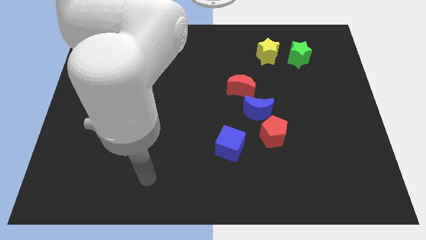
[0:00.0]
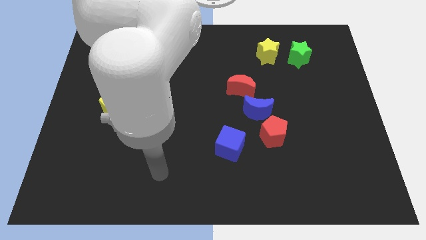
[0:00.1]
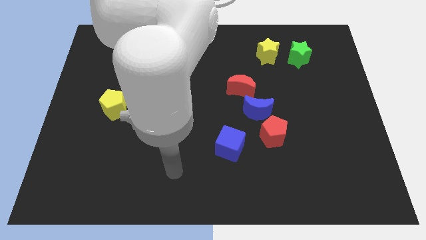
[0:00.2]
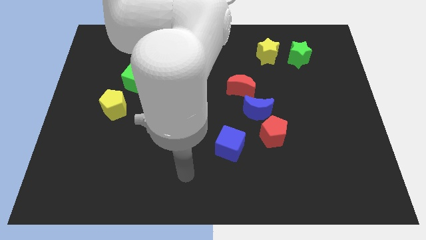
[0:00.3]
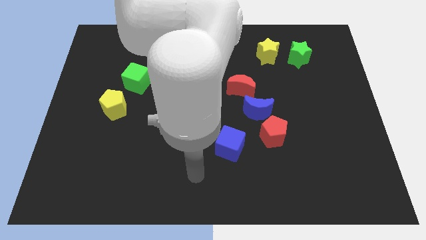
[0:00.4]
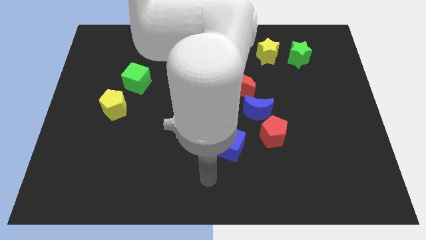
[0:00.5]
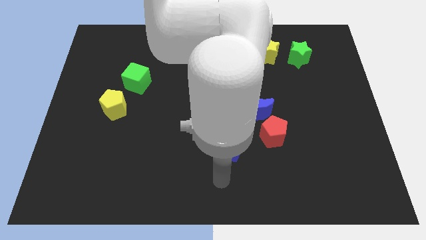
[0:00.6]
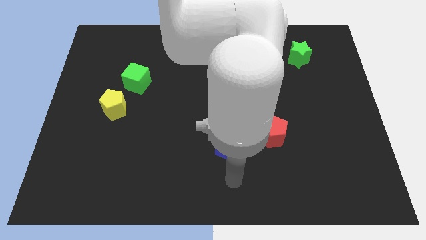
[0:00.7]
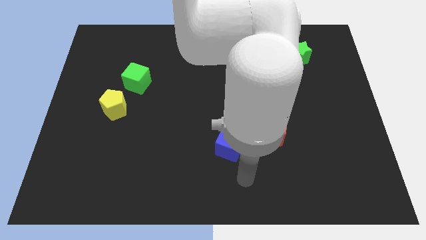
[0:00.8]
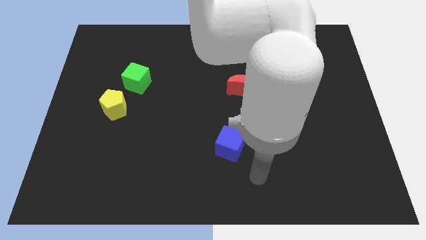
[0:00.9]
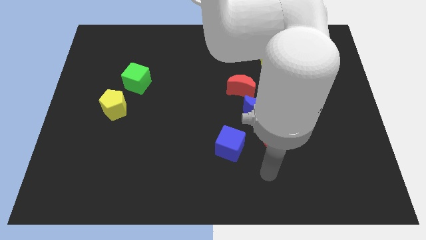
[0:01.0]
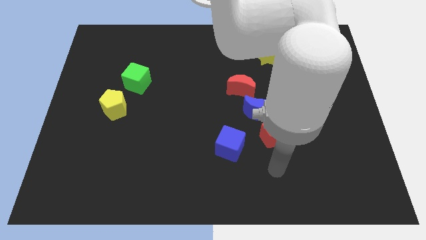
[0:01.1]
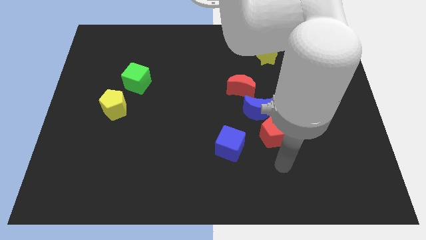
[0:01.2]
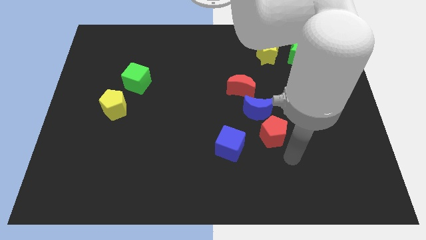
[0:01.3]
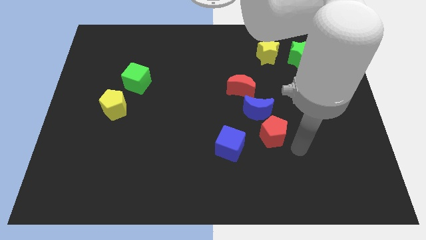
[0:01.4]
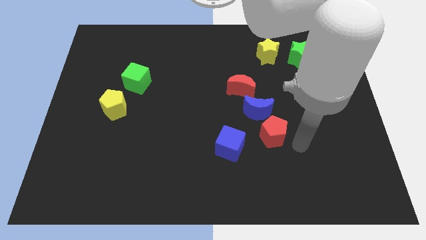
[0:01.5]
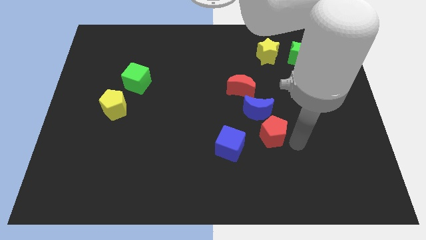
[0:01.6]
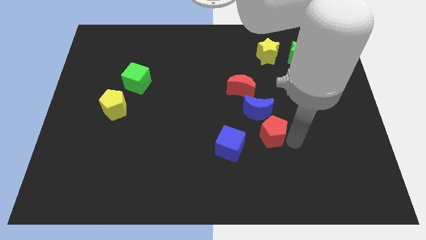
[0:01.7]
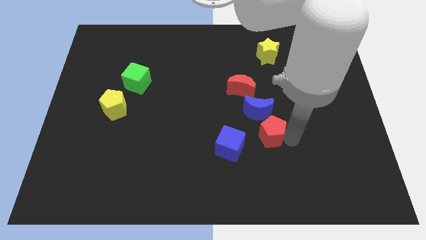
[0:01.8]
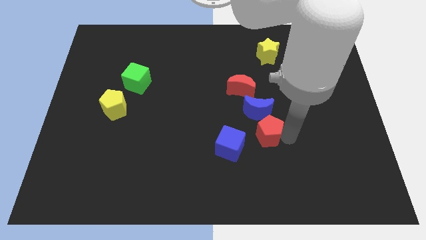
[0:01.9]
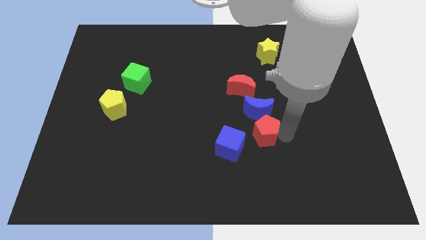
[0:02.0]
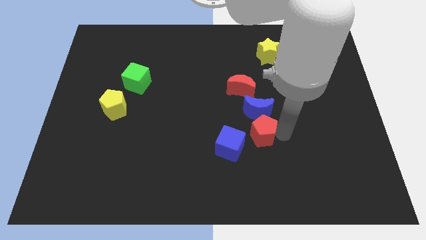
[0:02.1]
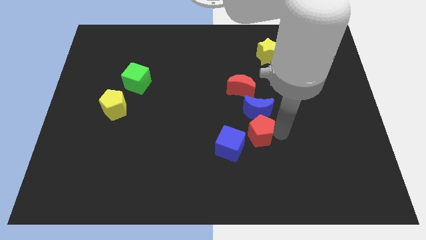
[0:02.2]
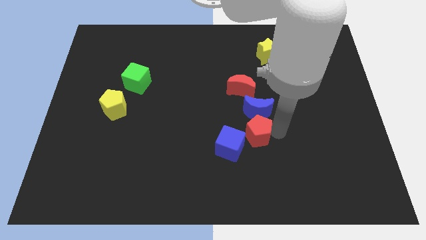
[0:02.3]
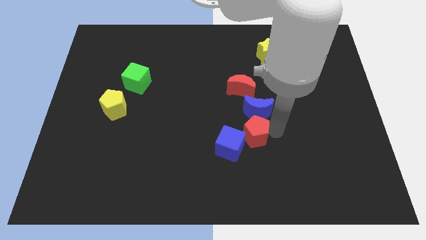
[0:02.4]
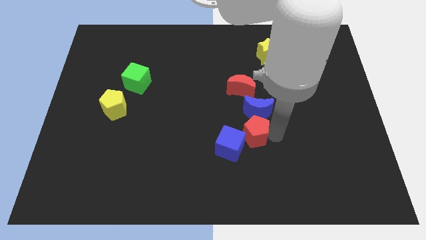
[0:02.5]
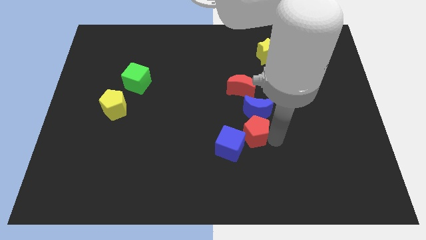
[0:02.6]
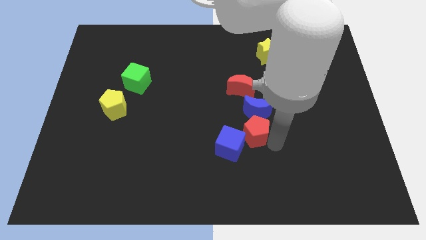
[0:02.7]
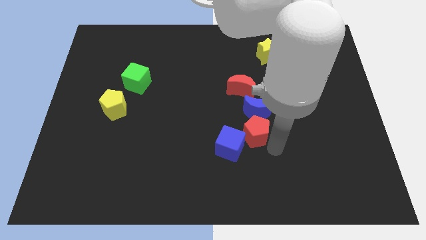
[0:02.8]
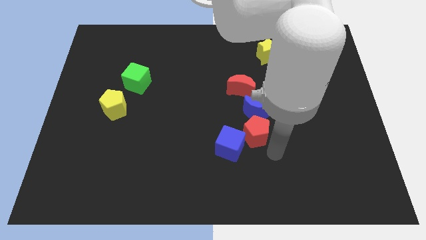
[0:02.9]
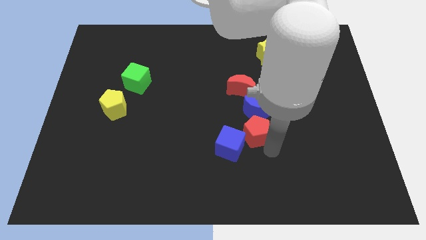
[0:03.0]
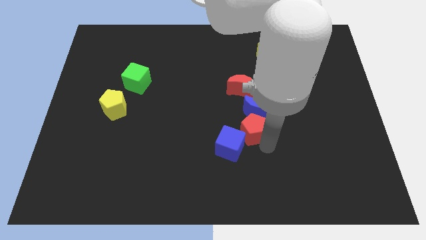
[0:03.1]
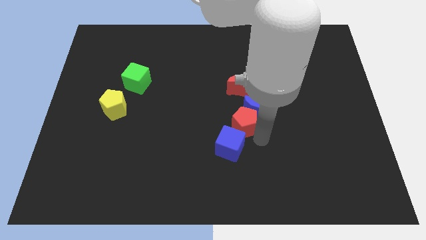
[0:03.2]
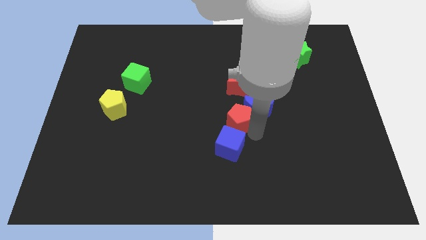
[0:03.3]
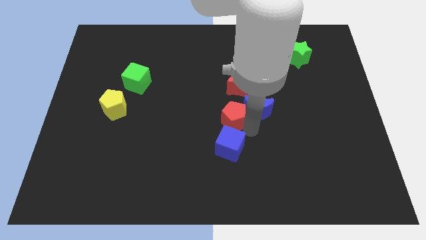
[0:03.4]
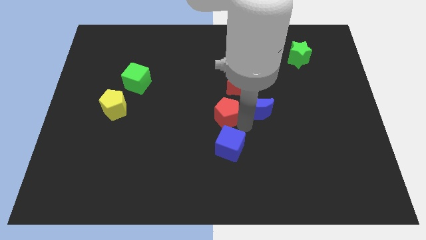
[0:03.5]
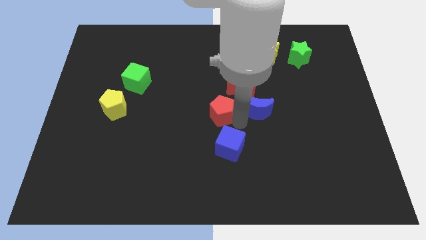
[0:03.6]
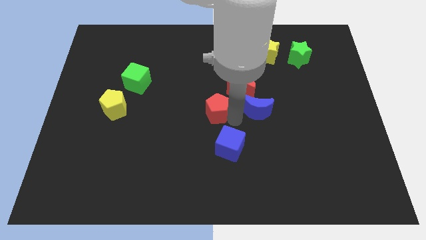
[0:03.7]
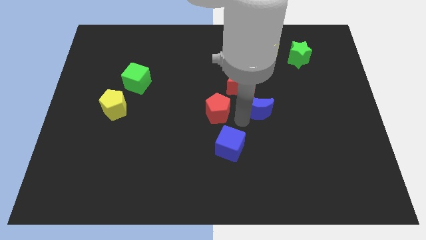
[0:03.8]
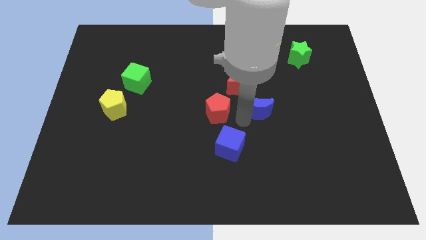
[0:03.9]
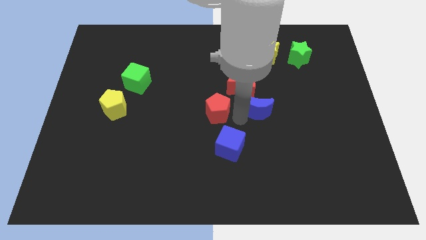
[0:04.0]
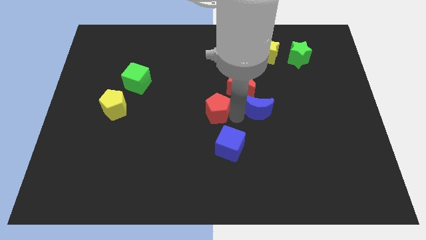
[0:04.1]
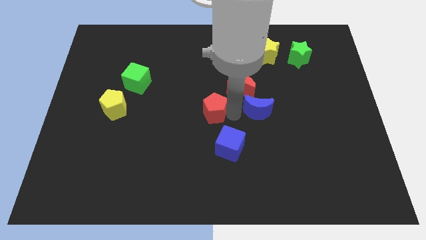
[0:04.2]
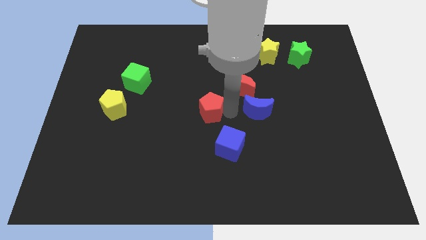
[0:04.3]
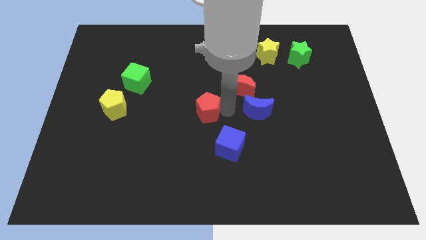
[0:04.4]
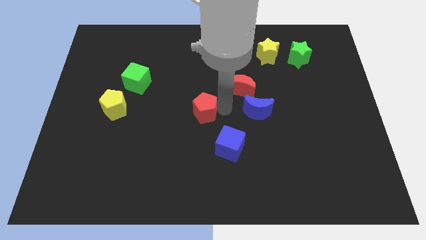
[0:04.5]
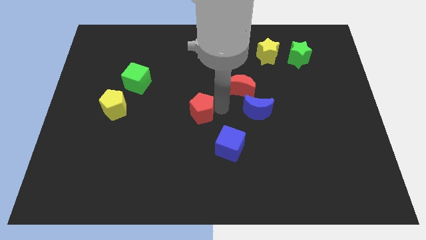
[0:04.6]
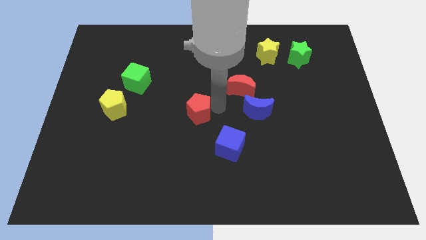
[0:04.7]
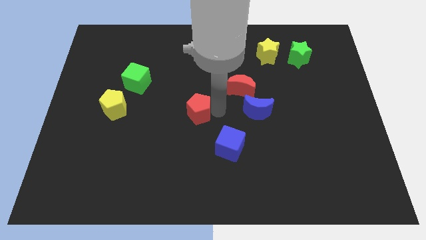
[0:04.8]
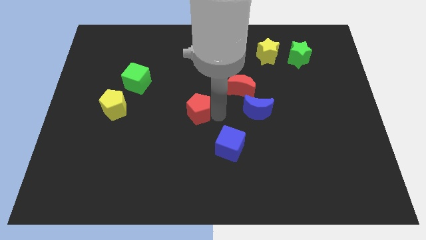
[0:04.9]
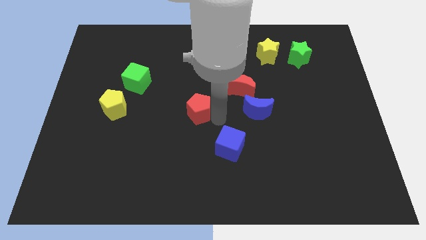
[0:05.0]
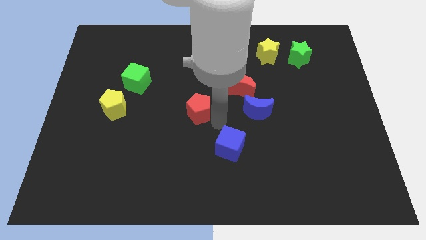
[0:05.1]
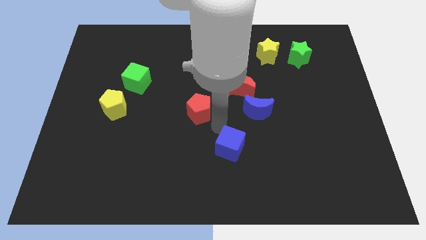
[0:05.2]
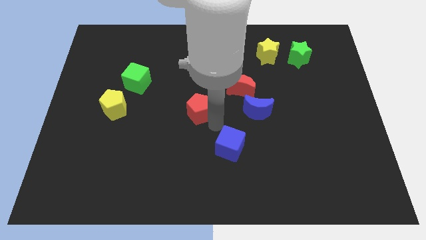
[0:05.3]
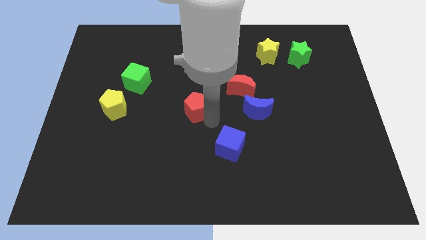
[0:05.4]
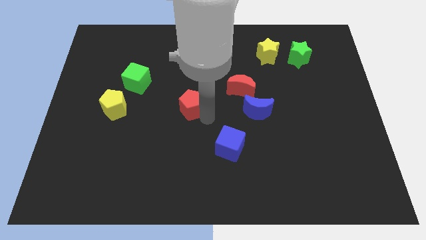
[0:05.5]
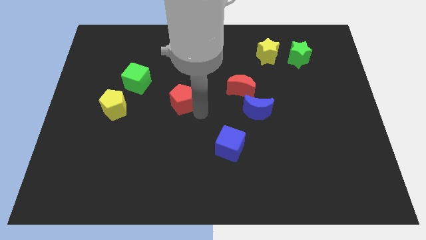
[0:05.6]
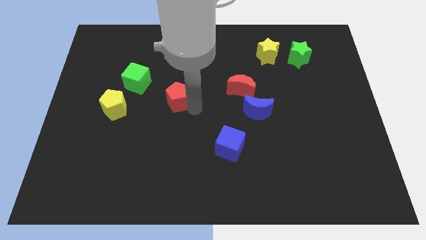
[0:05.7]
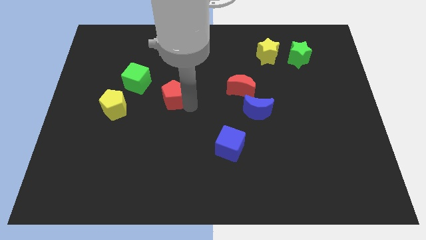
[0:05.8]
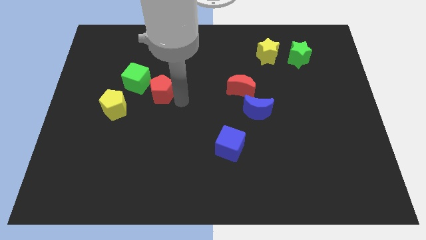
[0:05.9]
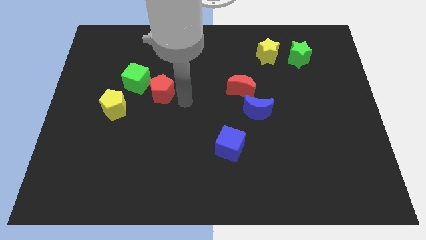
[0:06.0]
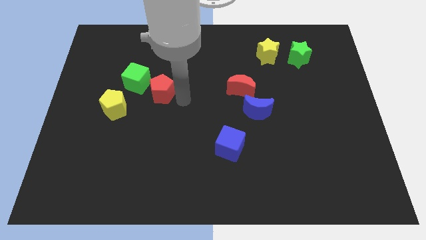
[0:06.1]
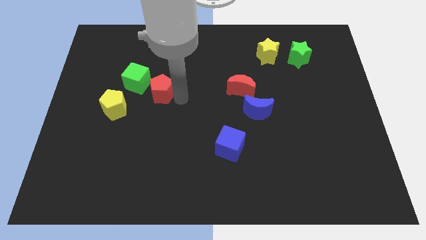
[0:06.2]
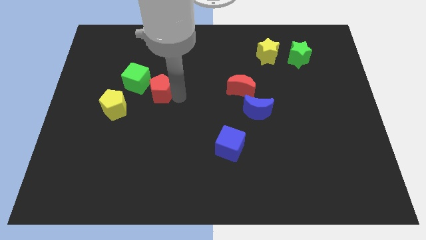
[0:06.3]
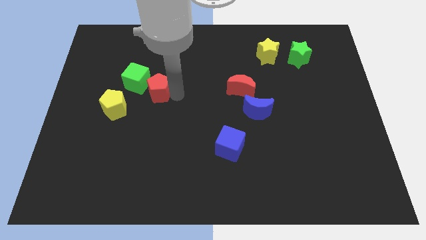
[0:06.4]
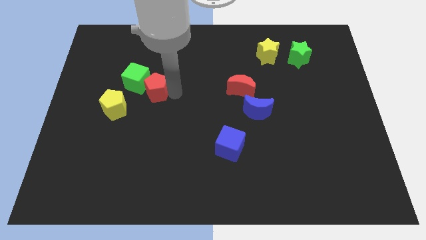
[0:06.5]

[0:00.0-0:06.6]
put the red pentagon next to the green cube
